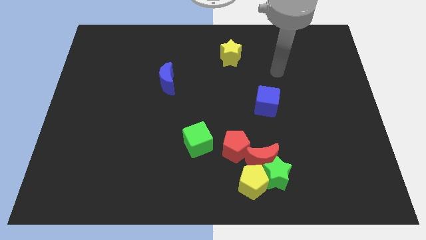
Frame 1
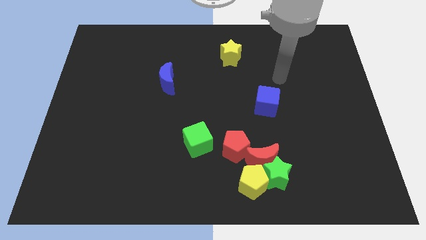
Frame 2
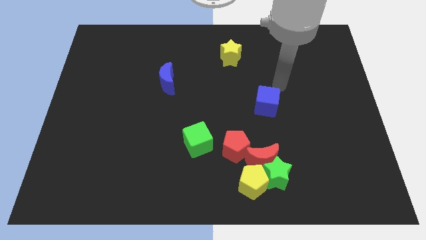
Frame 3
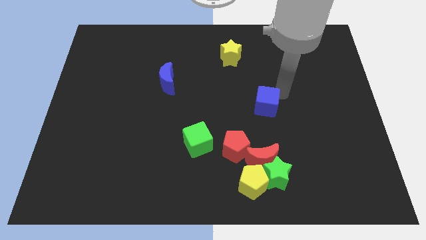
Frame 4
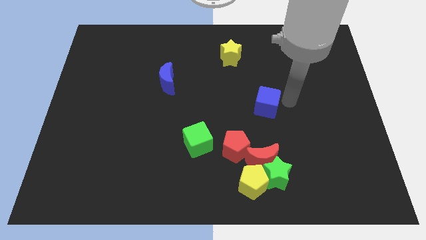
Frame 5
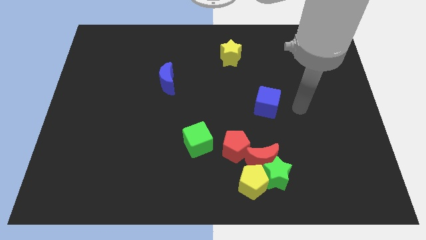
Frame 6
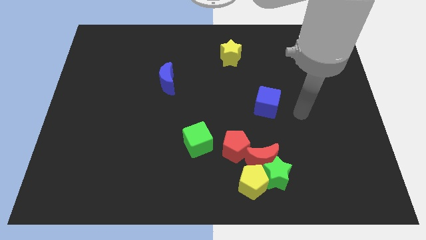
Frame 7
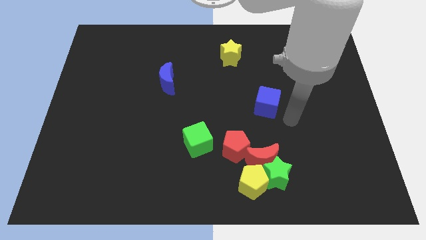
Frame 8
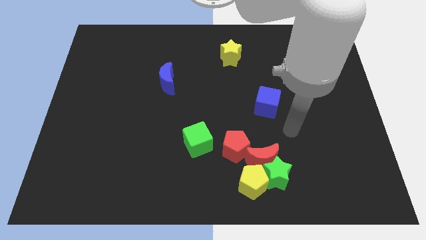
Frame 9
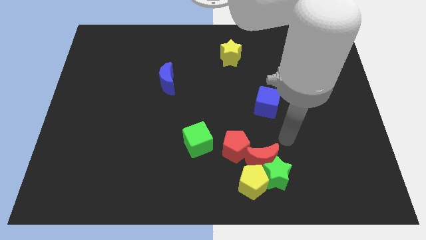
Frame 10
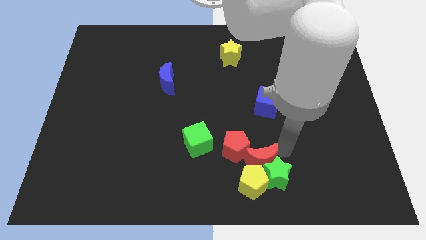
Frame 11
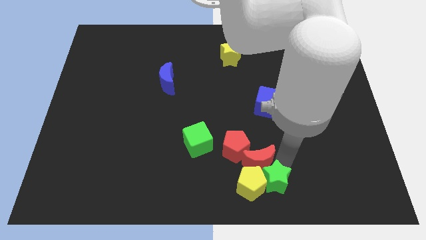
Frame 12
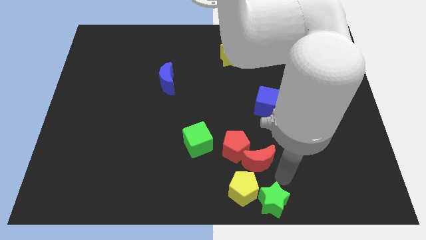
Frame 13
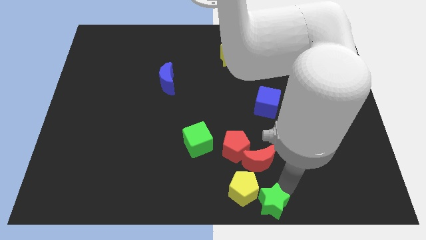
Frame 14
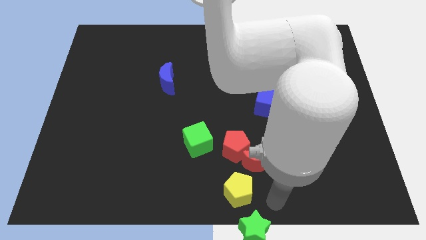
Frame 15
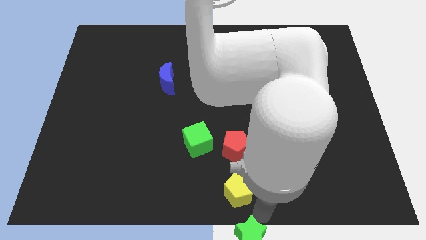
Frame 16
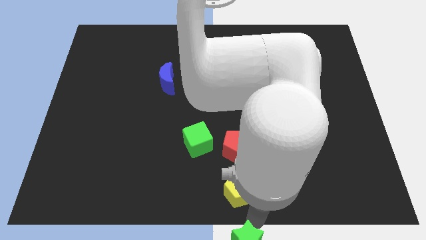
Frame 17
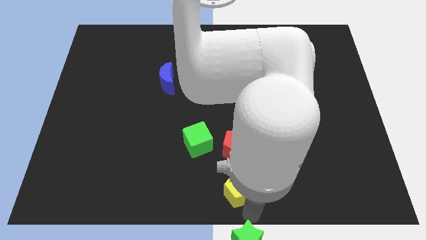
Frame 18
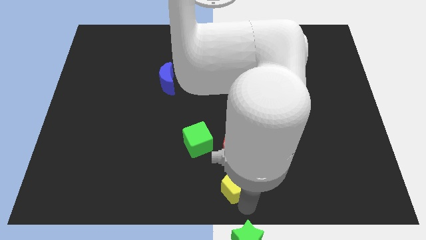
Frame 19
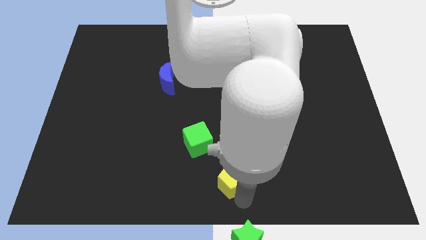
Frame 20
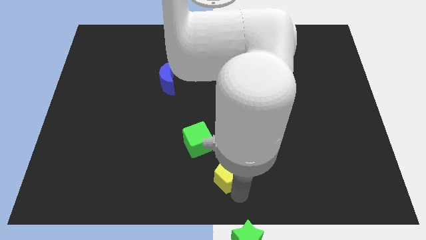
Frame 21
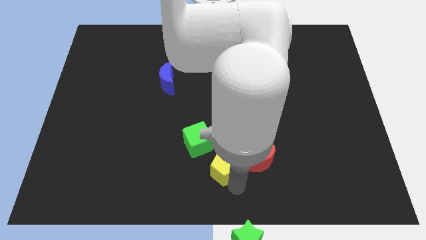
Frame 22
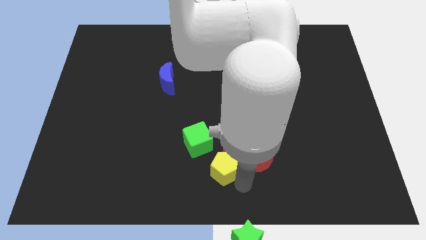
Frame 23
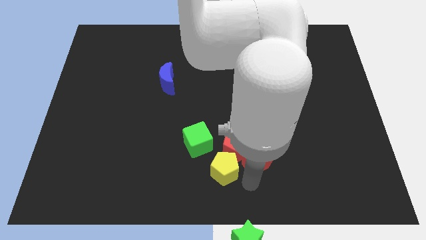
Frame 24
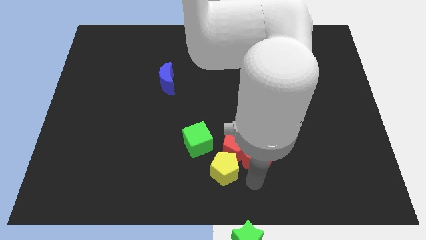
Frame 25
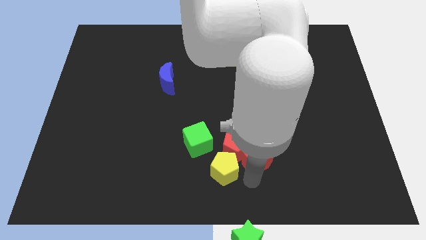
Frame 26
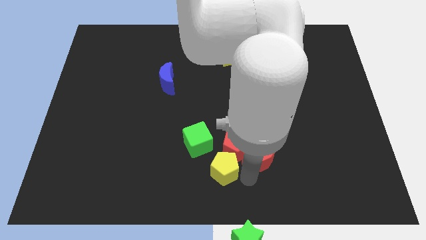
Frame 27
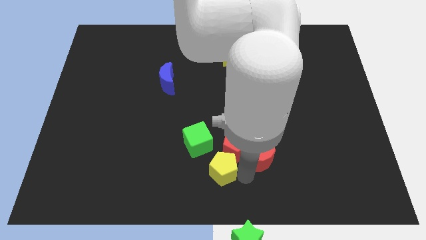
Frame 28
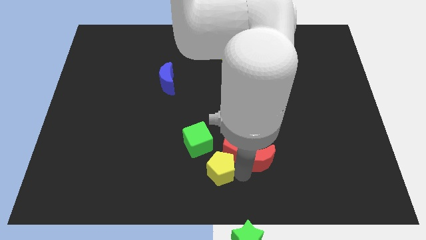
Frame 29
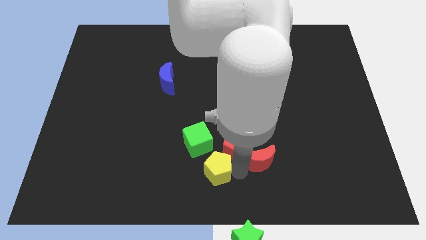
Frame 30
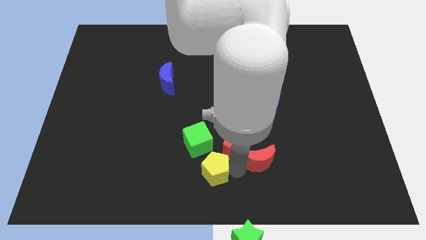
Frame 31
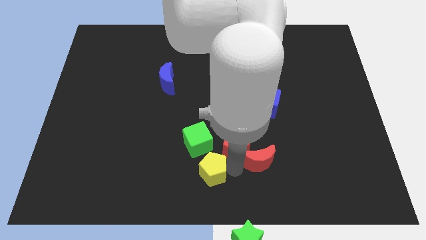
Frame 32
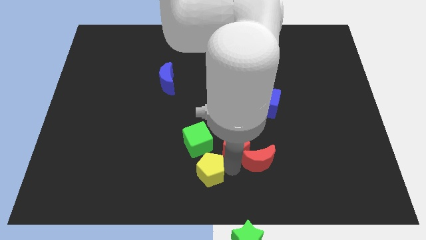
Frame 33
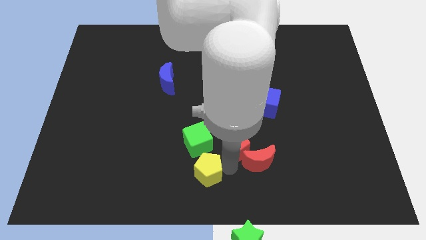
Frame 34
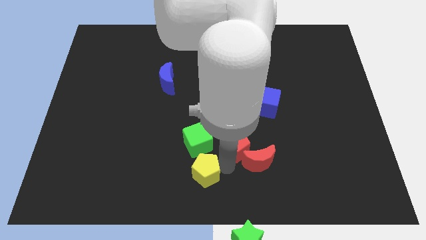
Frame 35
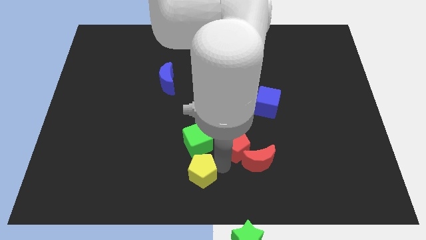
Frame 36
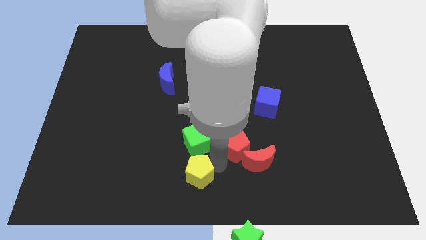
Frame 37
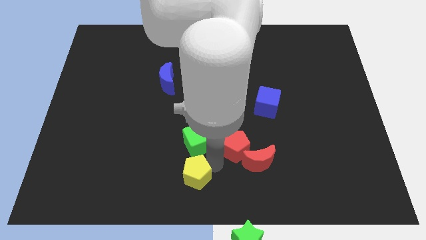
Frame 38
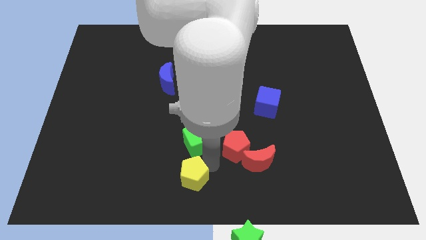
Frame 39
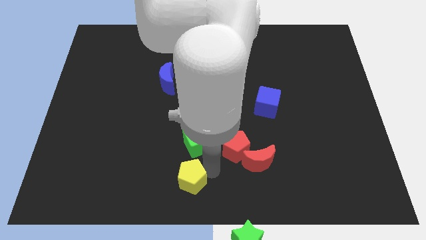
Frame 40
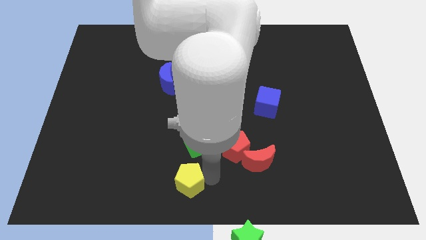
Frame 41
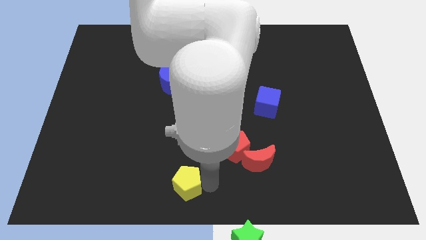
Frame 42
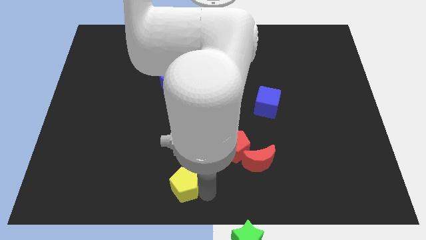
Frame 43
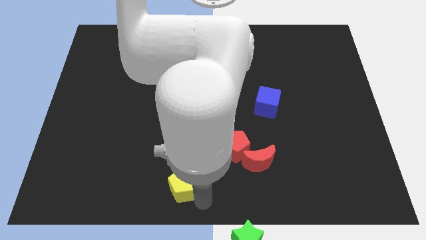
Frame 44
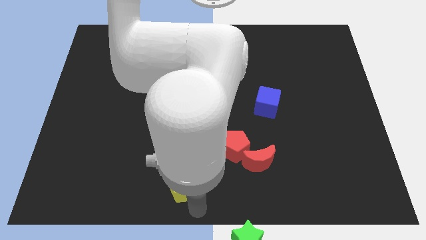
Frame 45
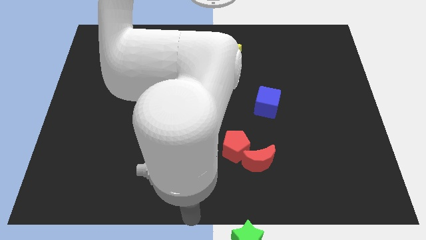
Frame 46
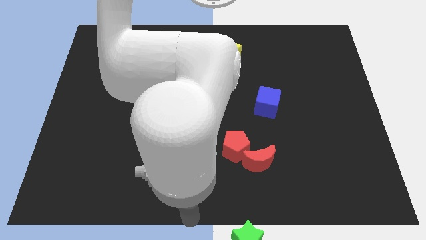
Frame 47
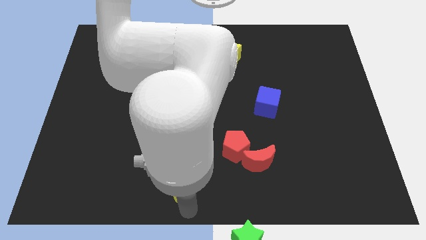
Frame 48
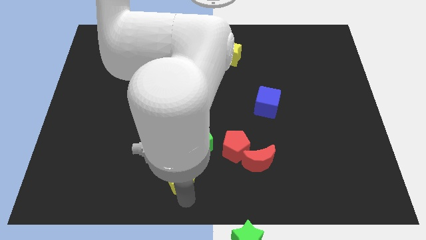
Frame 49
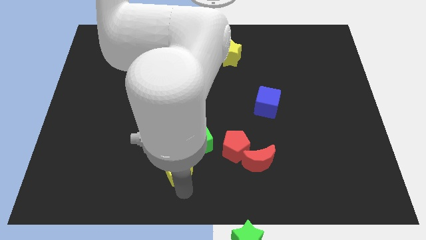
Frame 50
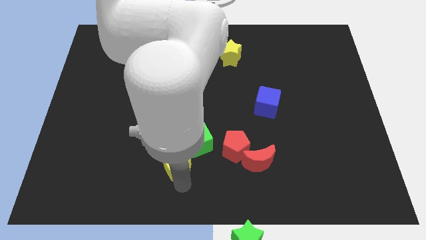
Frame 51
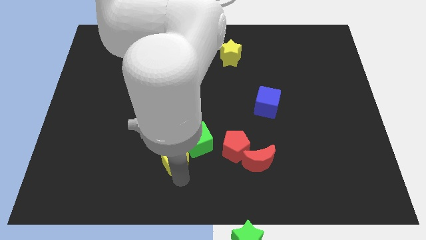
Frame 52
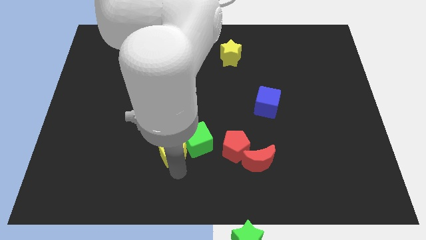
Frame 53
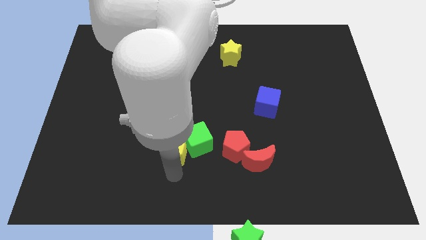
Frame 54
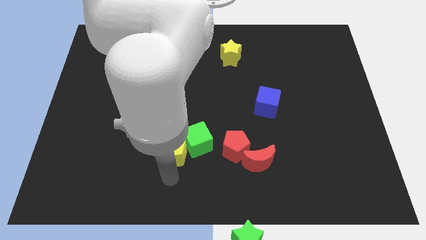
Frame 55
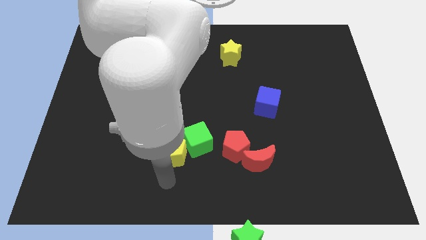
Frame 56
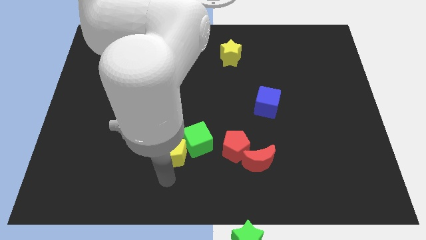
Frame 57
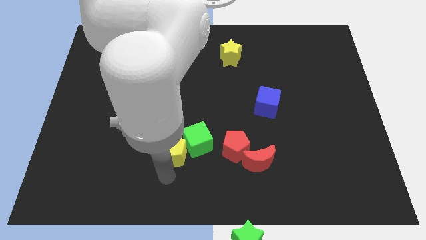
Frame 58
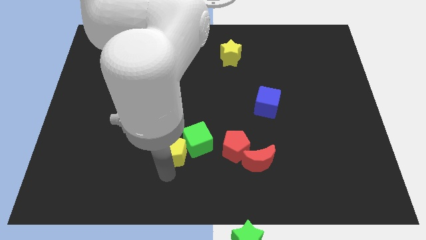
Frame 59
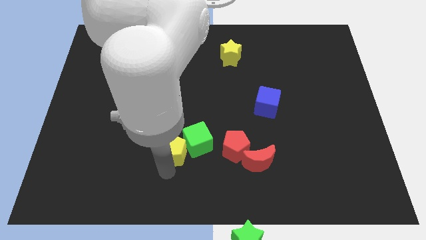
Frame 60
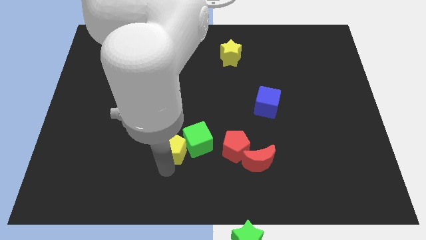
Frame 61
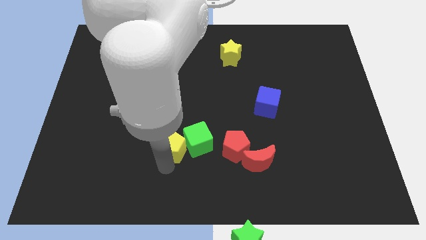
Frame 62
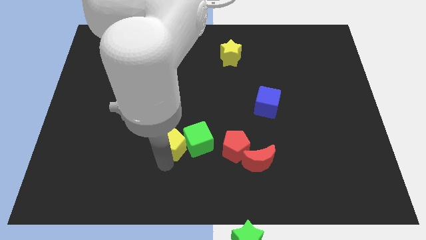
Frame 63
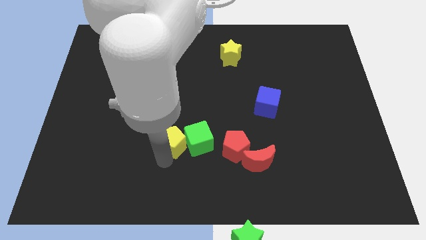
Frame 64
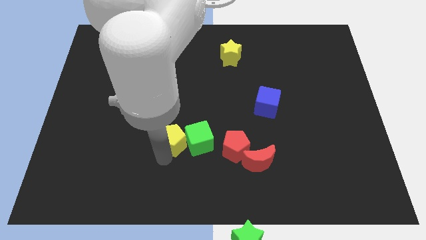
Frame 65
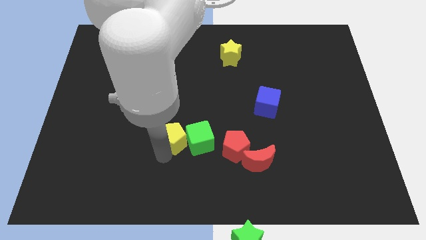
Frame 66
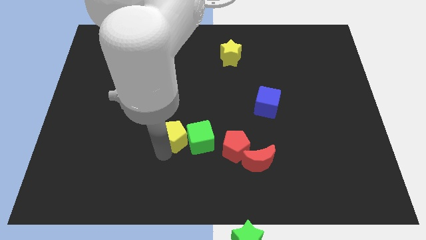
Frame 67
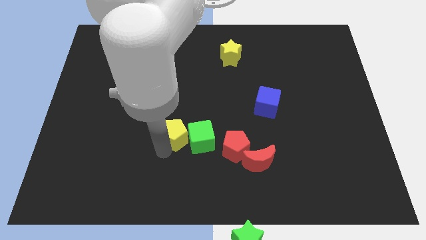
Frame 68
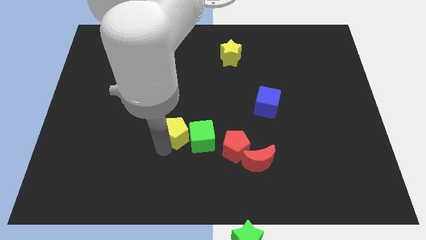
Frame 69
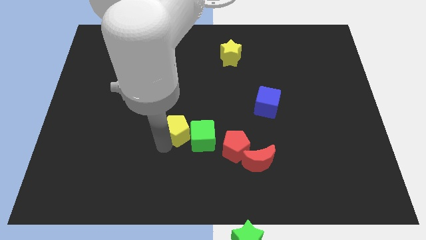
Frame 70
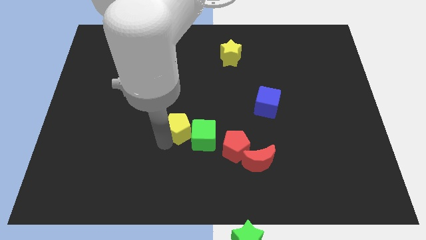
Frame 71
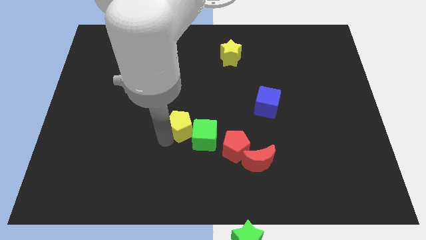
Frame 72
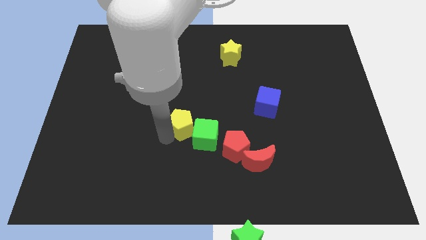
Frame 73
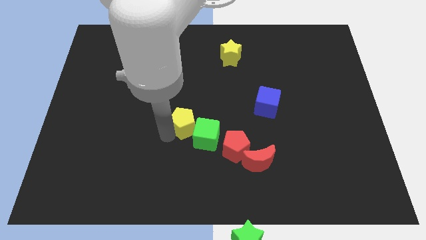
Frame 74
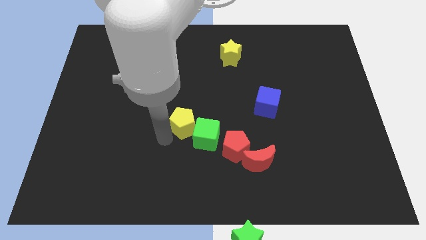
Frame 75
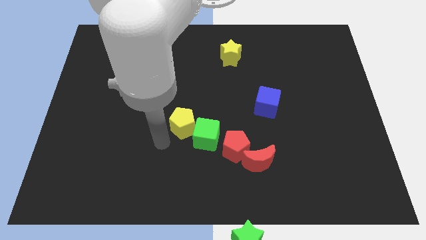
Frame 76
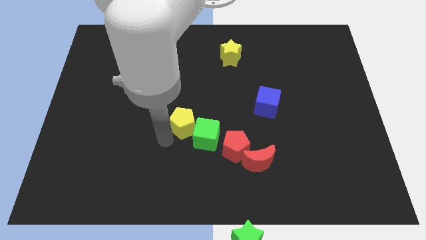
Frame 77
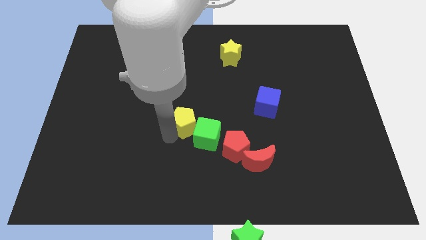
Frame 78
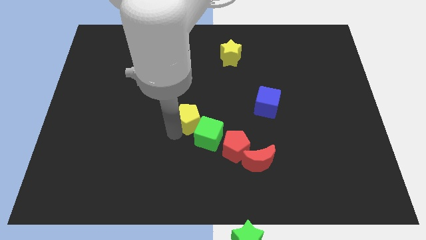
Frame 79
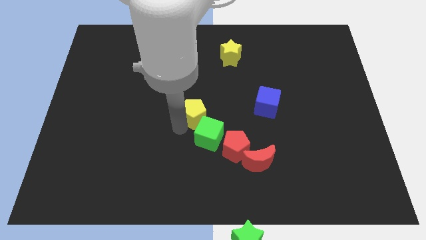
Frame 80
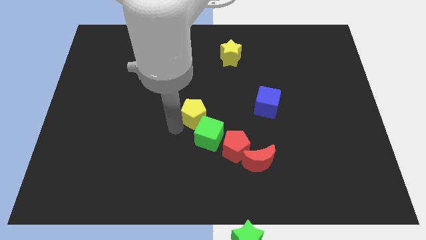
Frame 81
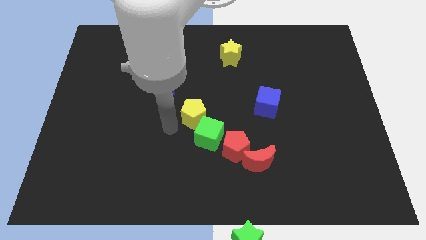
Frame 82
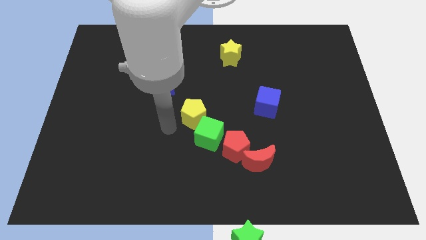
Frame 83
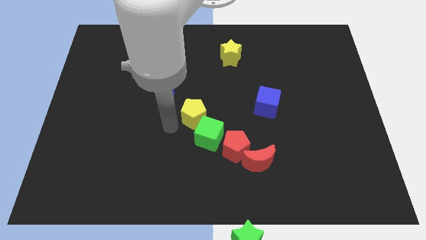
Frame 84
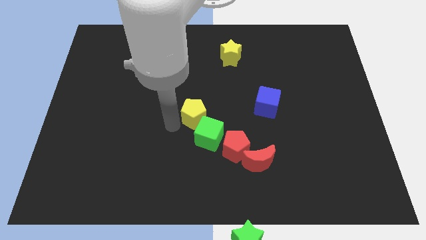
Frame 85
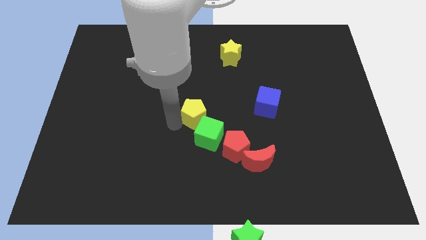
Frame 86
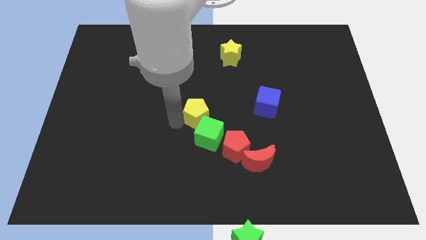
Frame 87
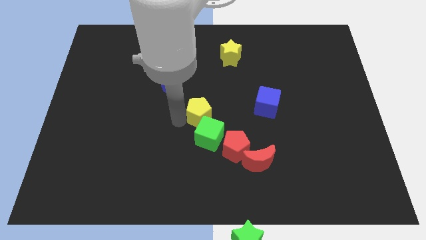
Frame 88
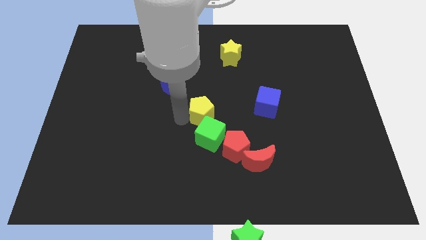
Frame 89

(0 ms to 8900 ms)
slide the yellow pentagon to the left side of the blue cube
